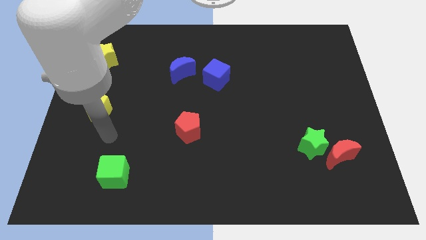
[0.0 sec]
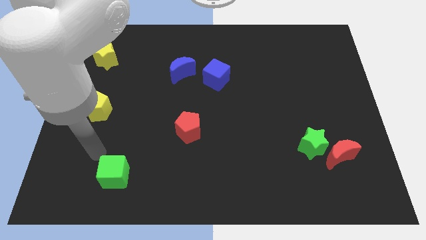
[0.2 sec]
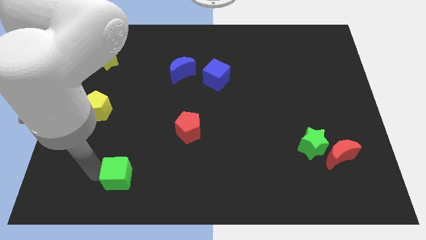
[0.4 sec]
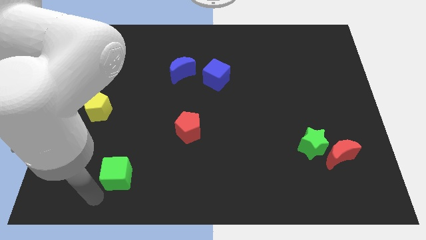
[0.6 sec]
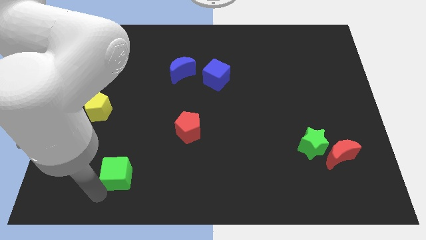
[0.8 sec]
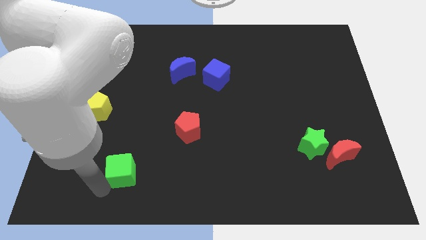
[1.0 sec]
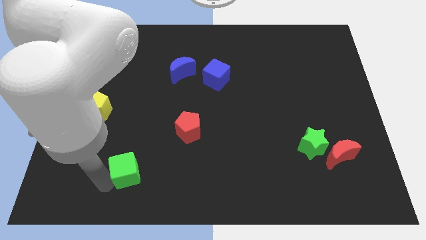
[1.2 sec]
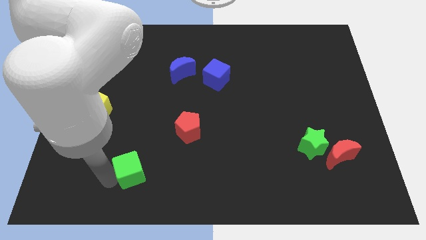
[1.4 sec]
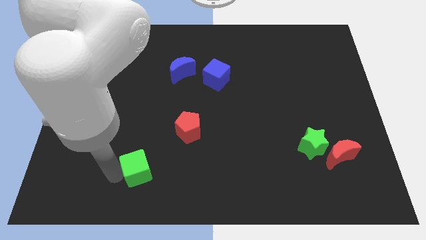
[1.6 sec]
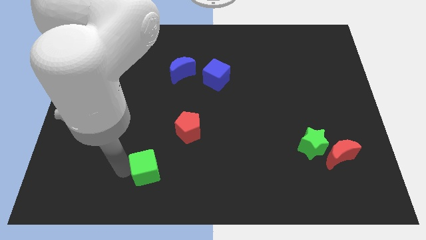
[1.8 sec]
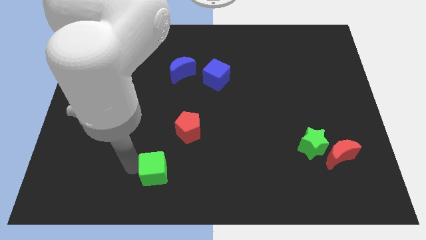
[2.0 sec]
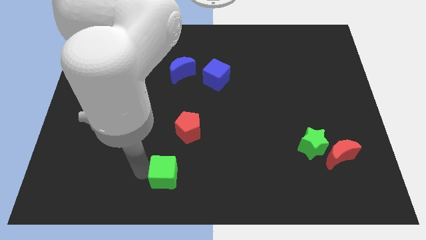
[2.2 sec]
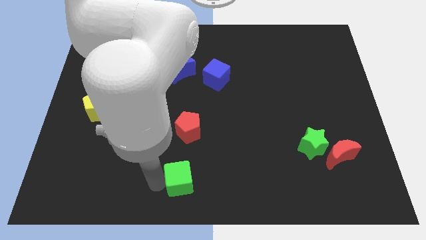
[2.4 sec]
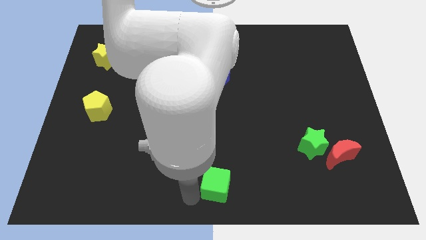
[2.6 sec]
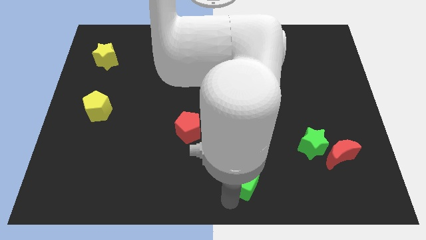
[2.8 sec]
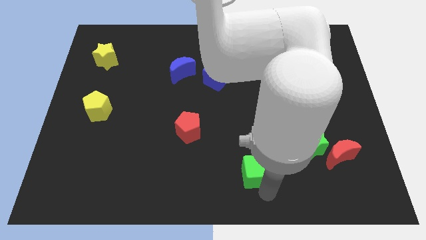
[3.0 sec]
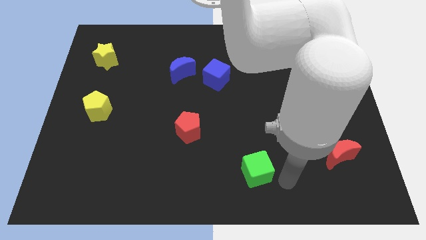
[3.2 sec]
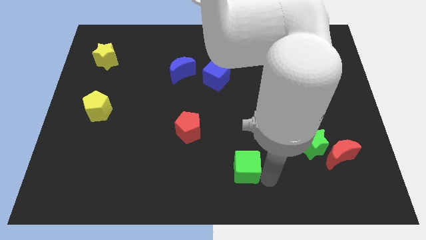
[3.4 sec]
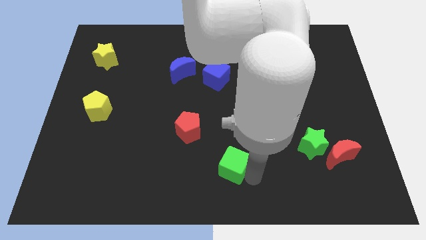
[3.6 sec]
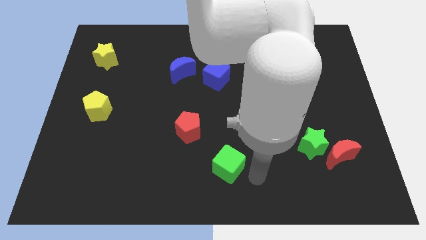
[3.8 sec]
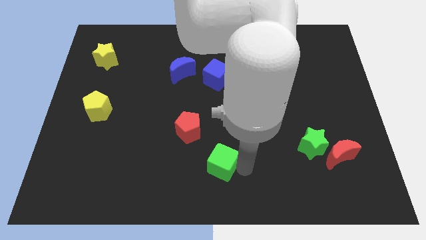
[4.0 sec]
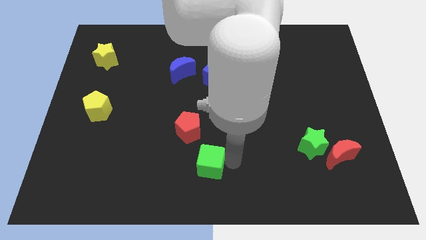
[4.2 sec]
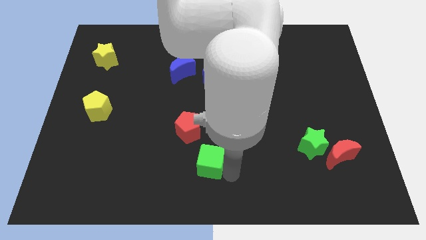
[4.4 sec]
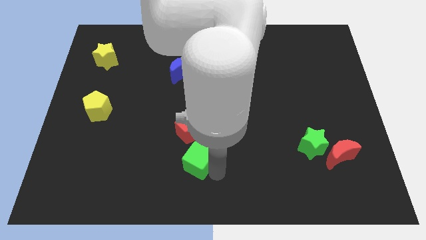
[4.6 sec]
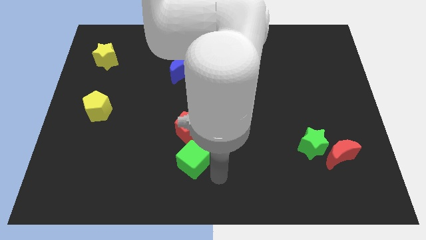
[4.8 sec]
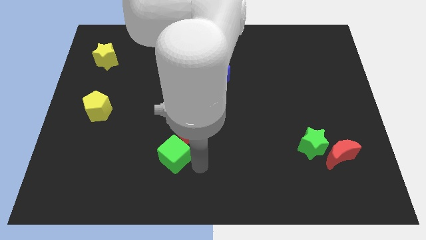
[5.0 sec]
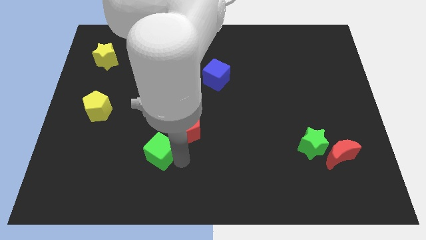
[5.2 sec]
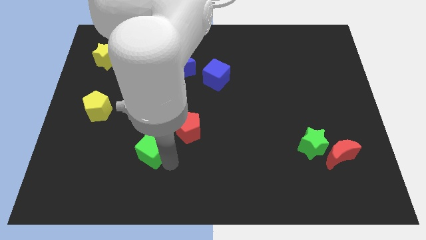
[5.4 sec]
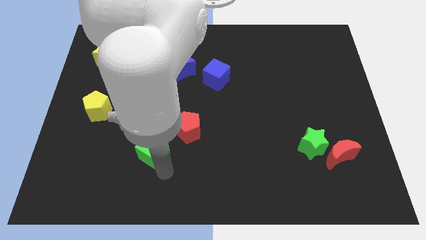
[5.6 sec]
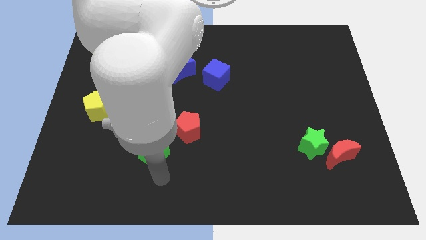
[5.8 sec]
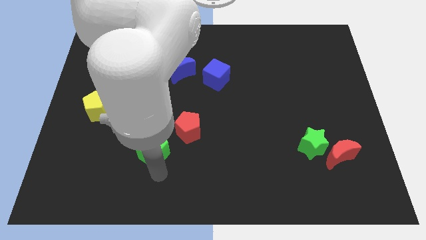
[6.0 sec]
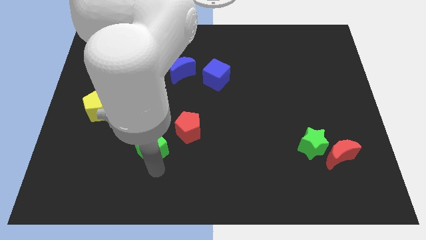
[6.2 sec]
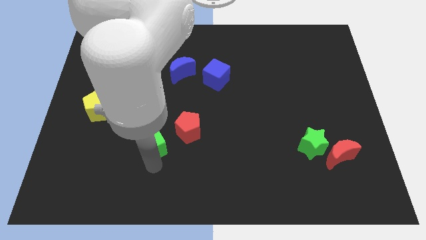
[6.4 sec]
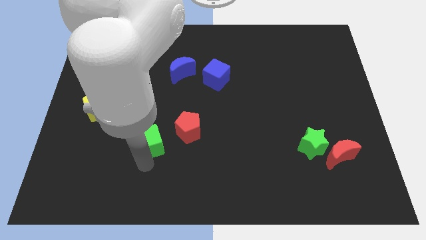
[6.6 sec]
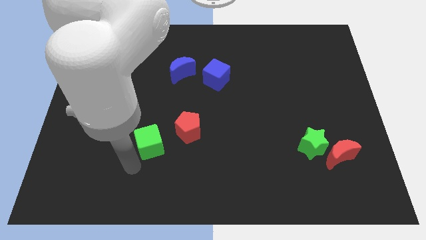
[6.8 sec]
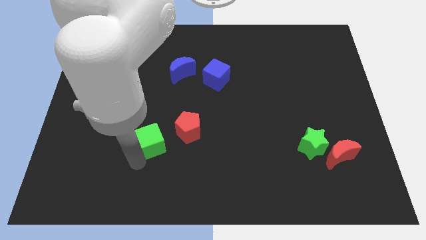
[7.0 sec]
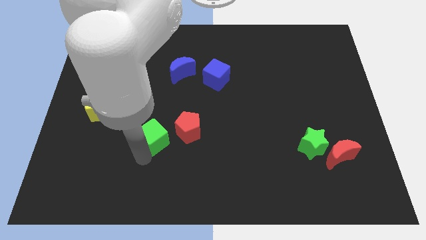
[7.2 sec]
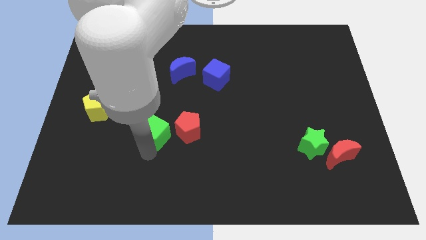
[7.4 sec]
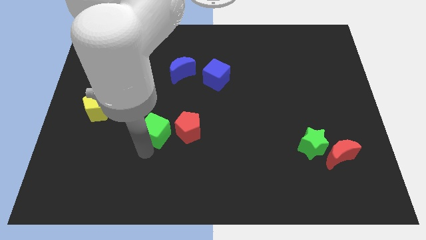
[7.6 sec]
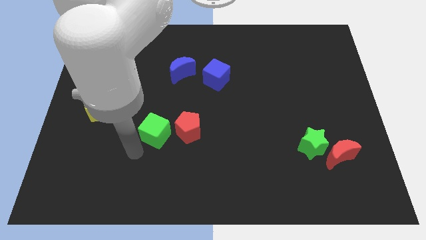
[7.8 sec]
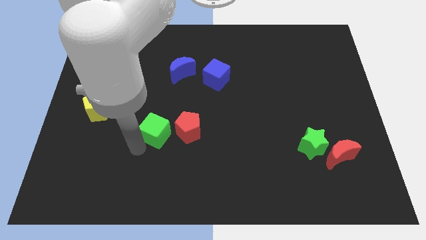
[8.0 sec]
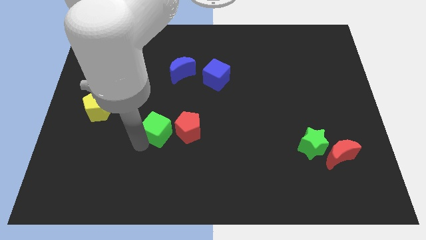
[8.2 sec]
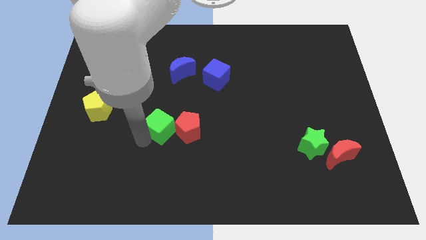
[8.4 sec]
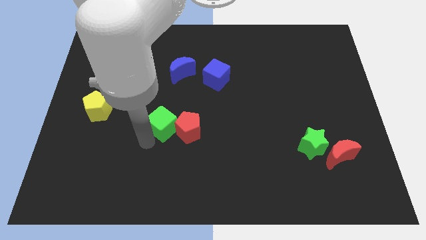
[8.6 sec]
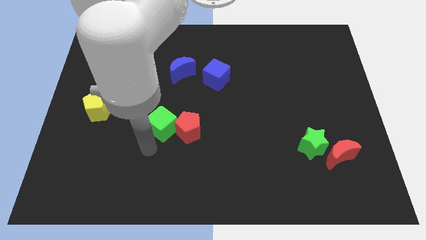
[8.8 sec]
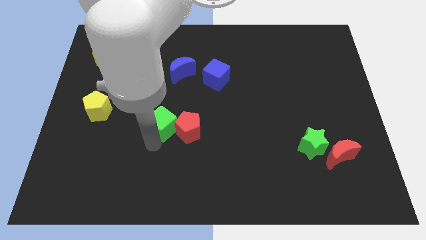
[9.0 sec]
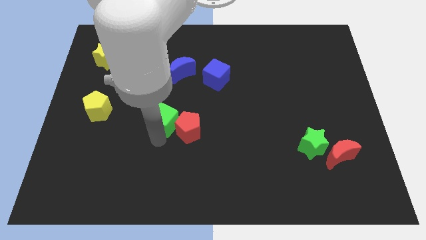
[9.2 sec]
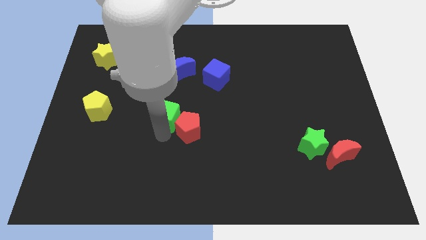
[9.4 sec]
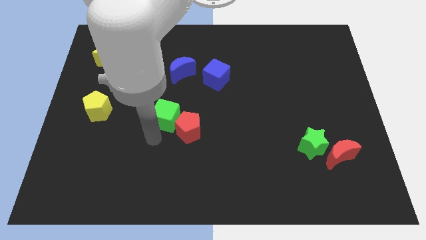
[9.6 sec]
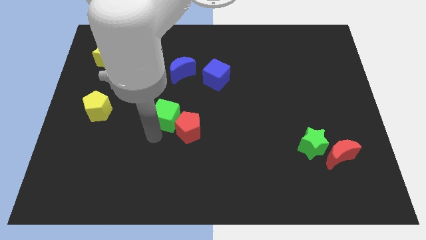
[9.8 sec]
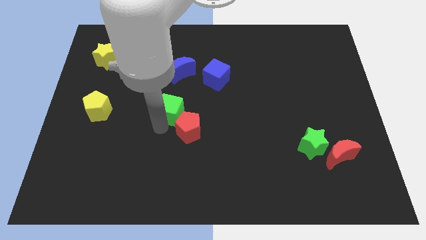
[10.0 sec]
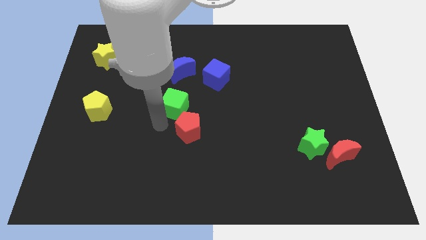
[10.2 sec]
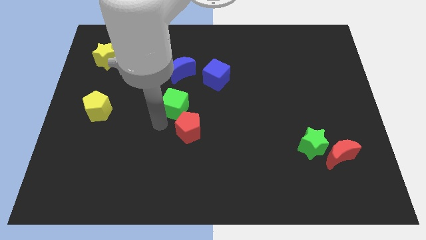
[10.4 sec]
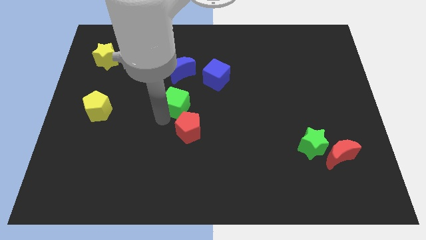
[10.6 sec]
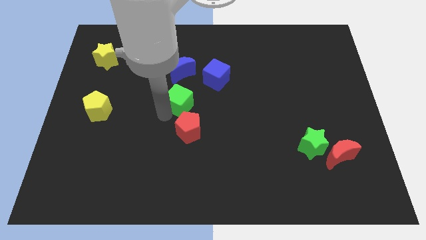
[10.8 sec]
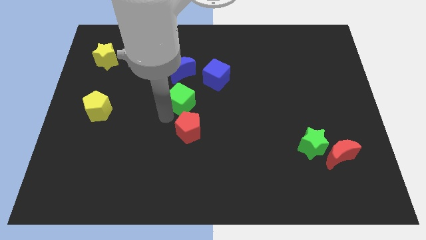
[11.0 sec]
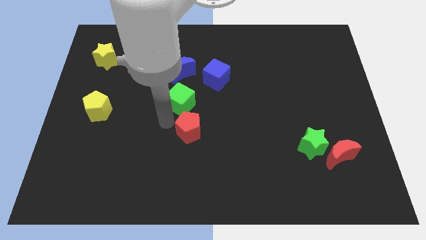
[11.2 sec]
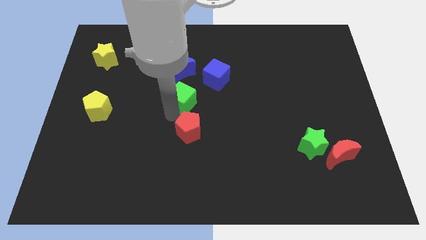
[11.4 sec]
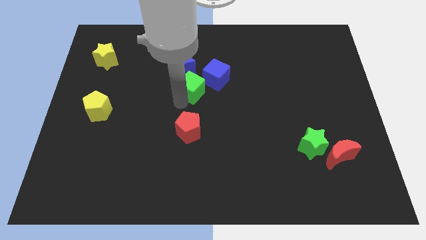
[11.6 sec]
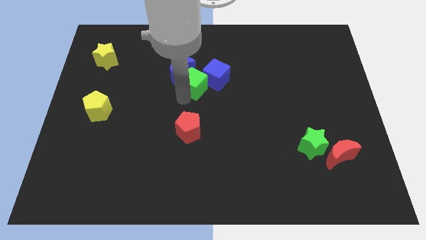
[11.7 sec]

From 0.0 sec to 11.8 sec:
move the green cube towards the blue cube

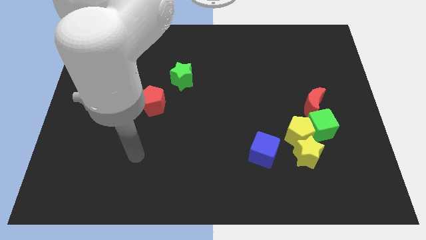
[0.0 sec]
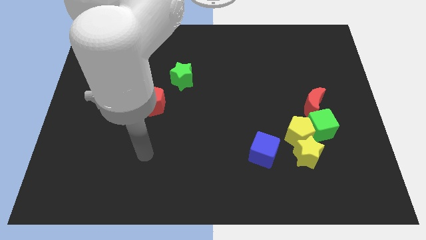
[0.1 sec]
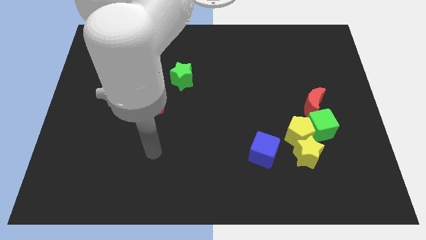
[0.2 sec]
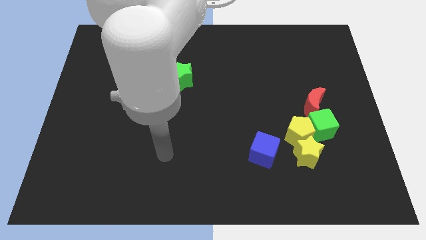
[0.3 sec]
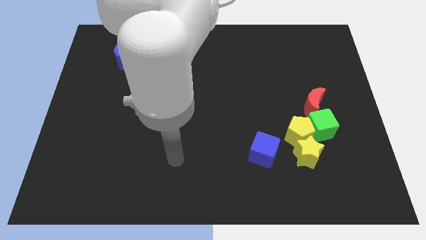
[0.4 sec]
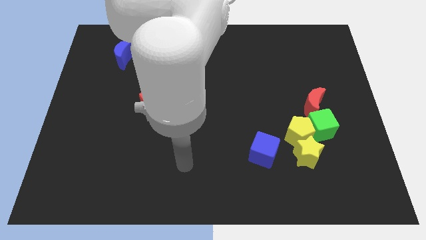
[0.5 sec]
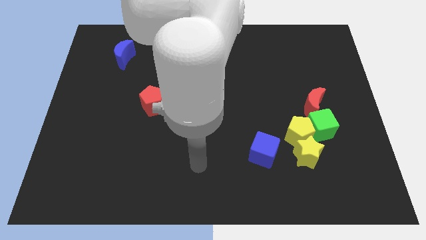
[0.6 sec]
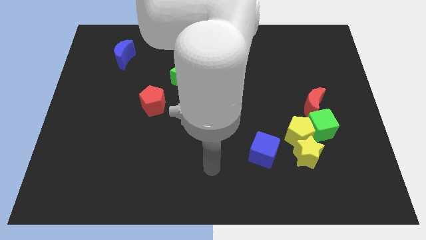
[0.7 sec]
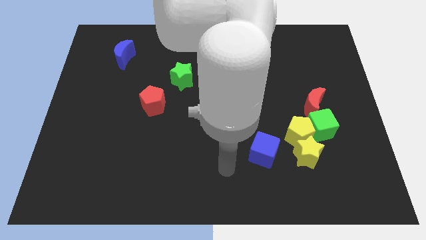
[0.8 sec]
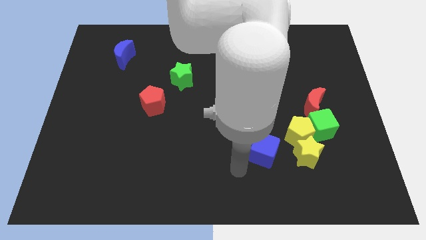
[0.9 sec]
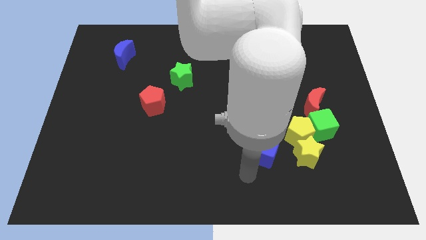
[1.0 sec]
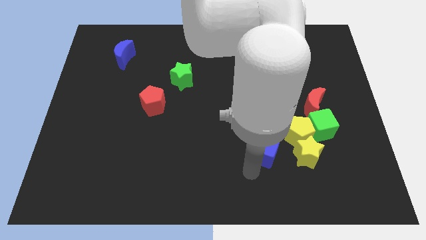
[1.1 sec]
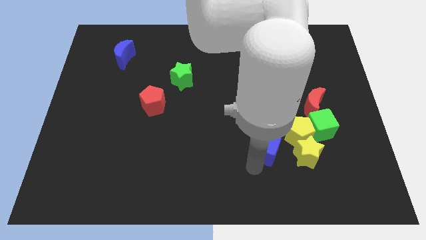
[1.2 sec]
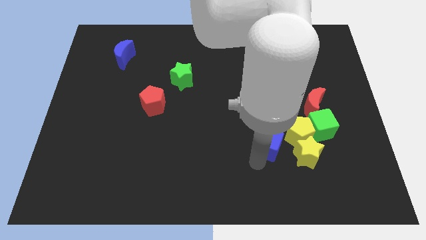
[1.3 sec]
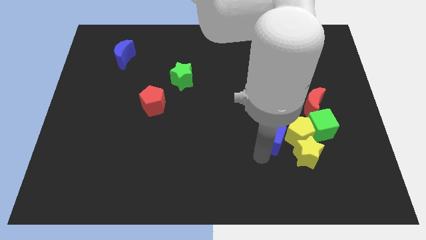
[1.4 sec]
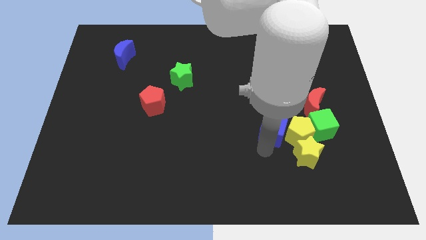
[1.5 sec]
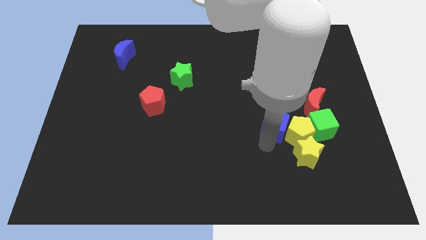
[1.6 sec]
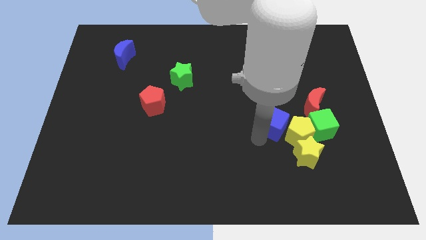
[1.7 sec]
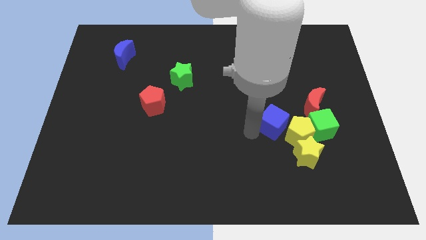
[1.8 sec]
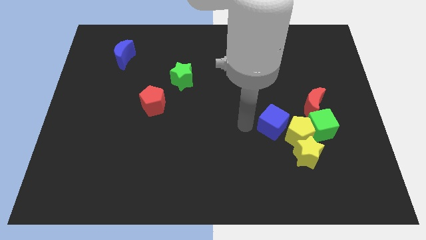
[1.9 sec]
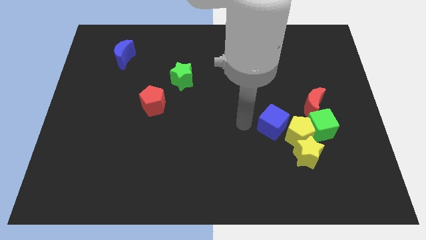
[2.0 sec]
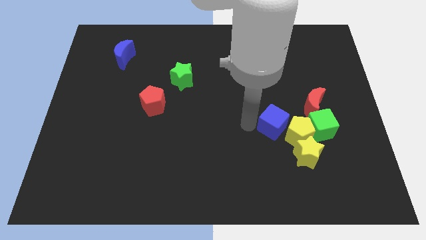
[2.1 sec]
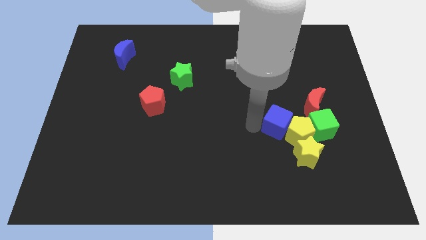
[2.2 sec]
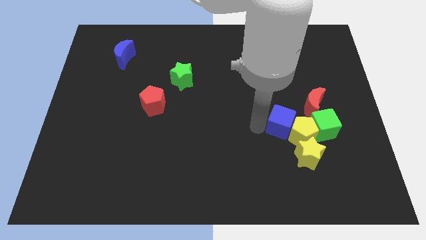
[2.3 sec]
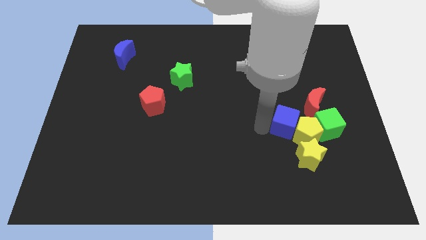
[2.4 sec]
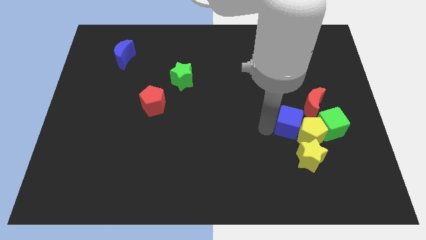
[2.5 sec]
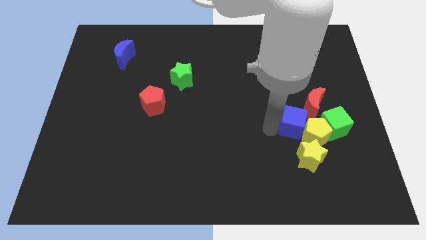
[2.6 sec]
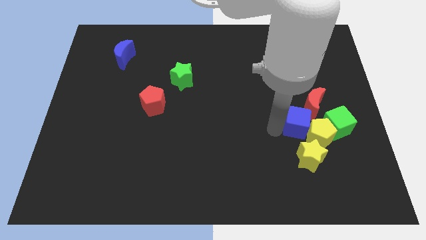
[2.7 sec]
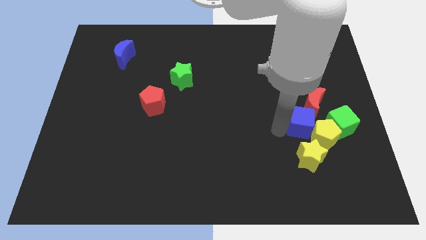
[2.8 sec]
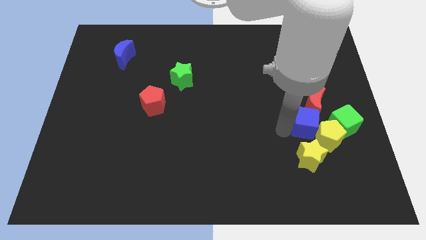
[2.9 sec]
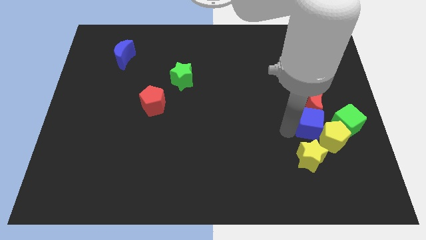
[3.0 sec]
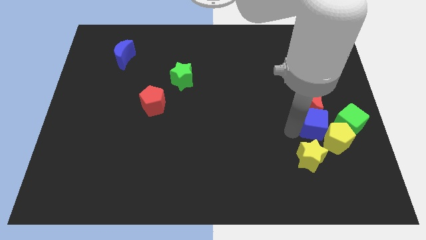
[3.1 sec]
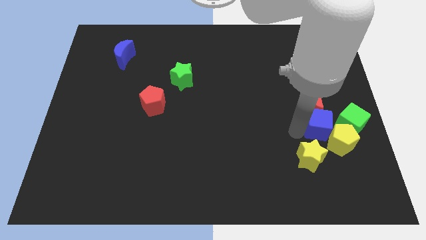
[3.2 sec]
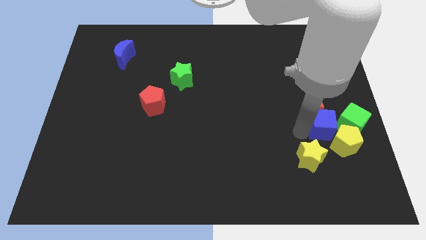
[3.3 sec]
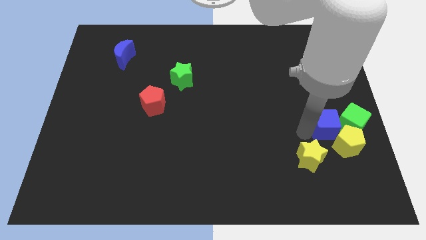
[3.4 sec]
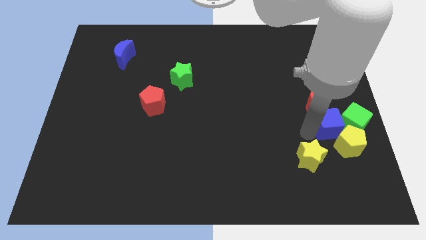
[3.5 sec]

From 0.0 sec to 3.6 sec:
slide the blue cube close to the green cube
